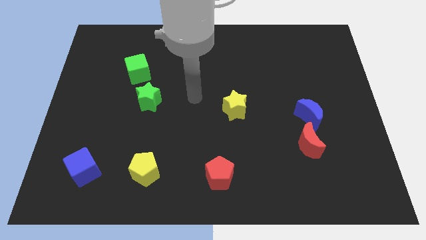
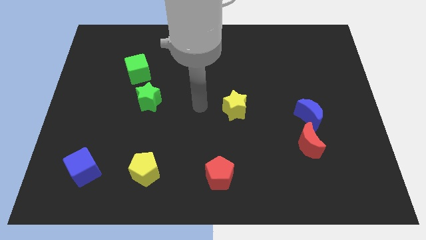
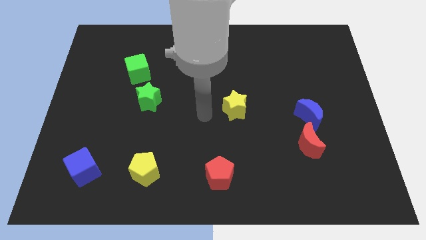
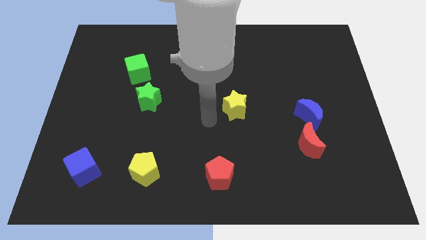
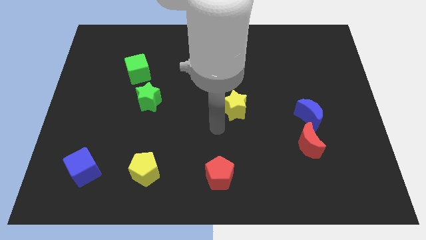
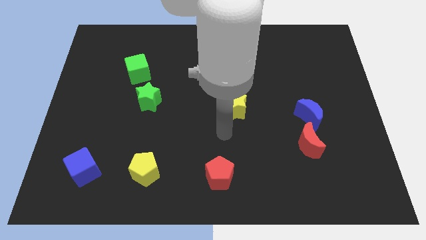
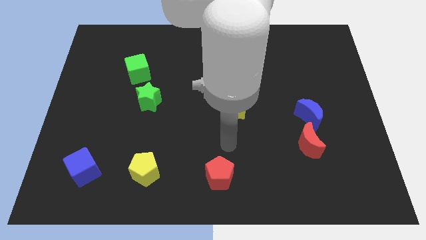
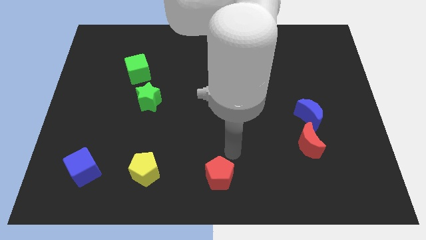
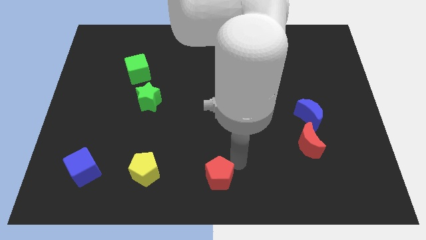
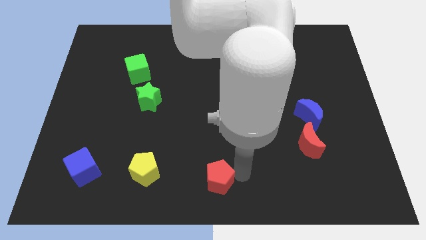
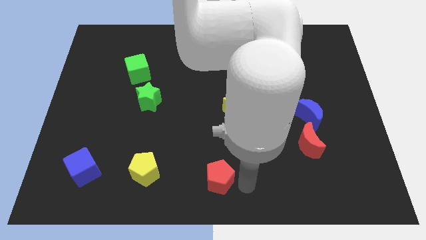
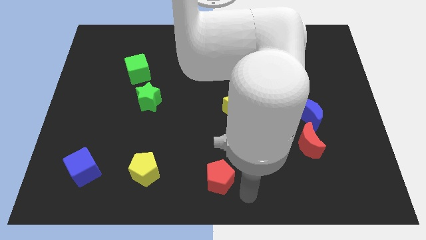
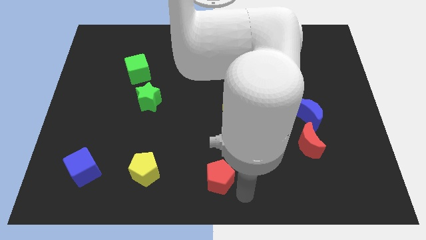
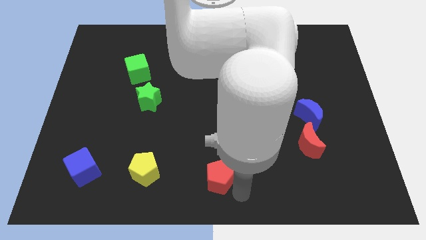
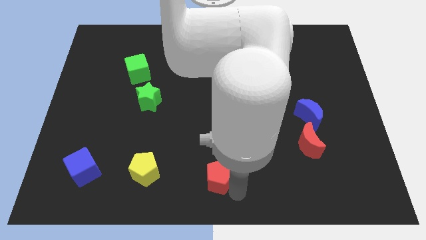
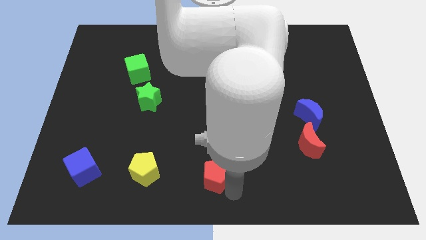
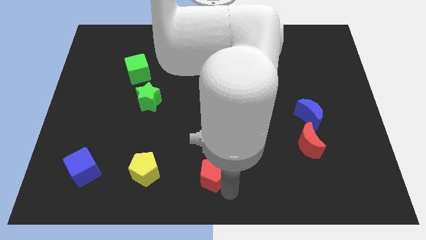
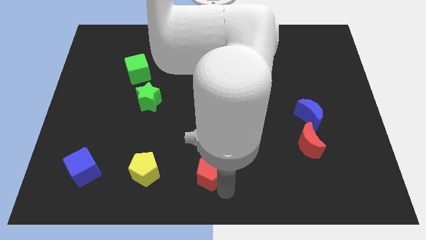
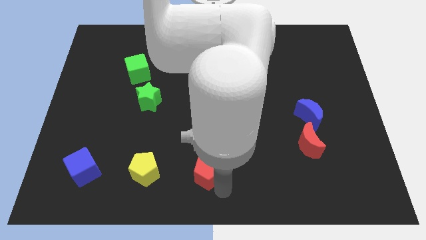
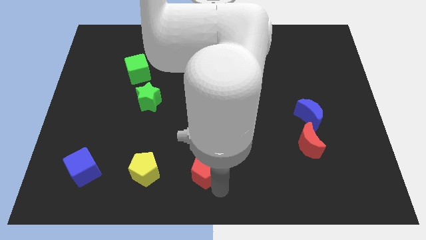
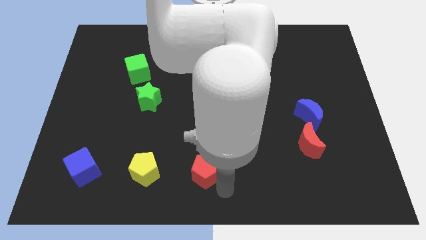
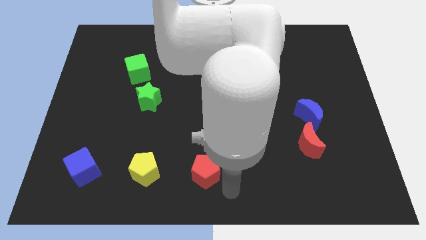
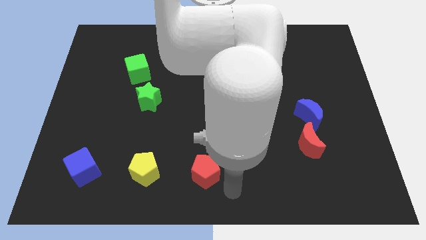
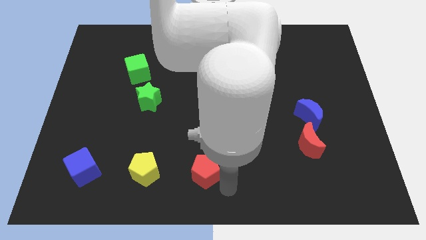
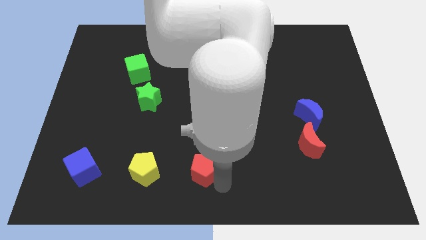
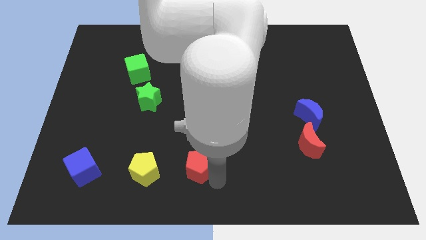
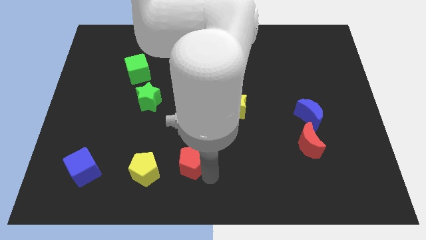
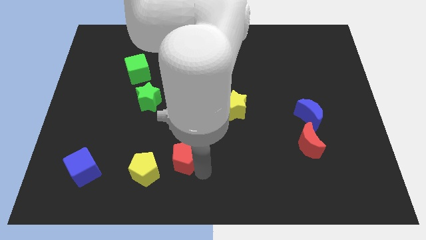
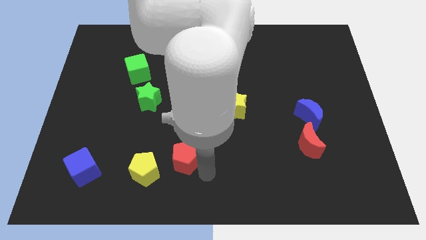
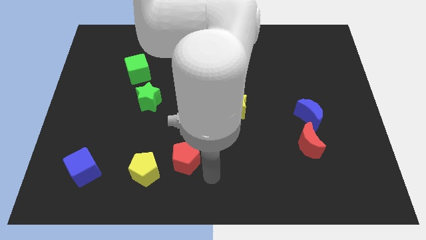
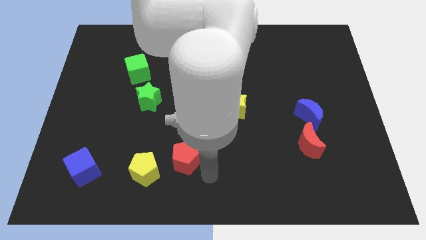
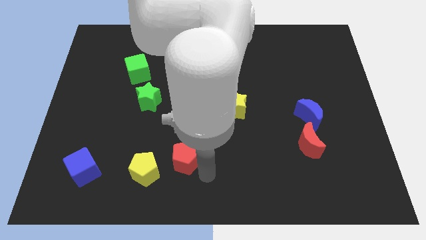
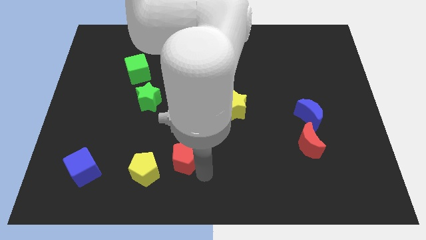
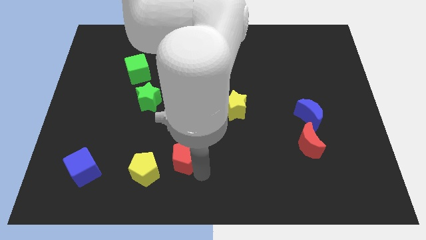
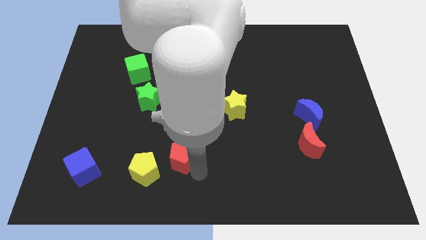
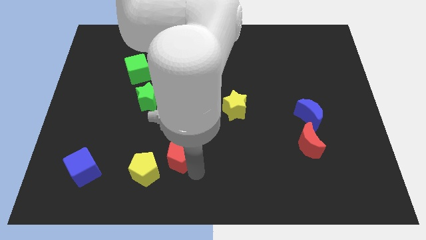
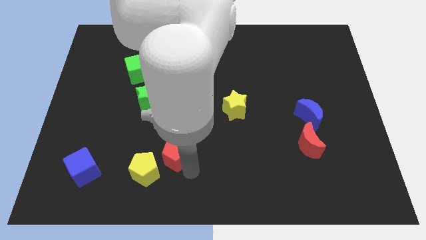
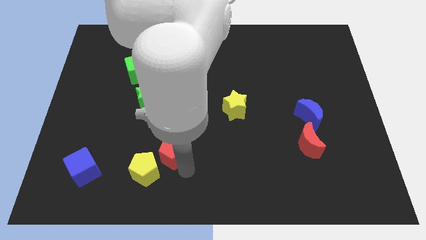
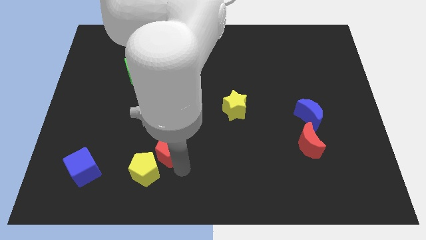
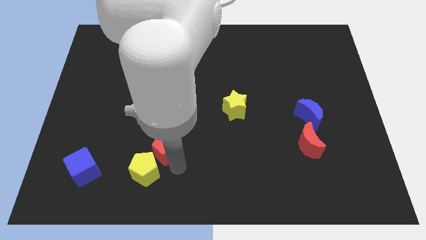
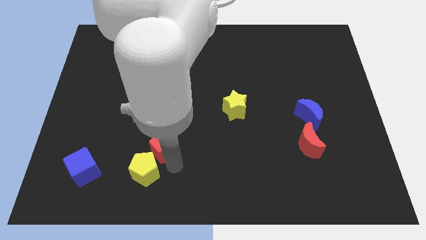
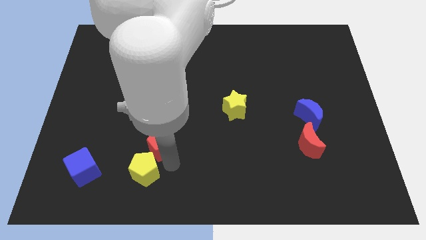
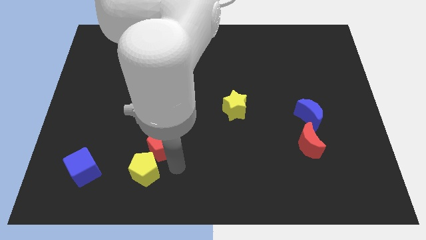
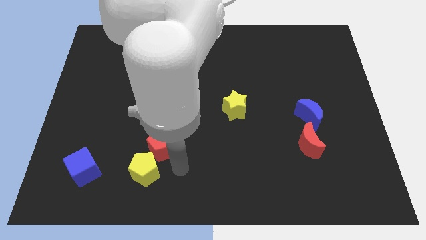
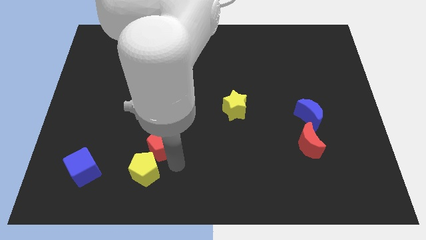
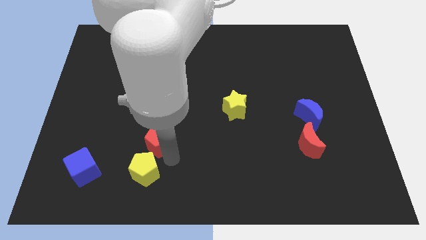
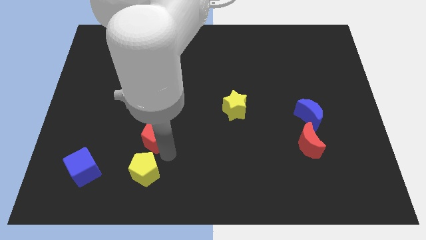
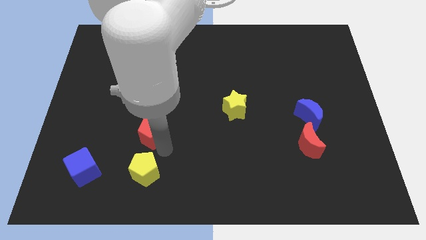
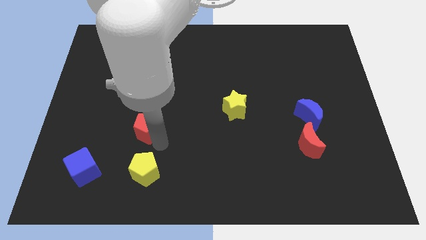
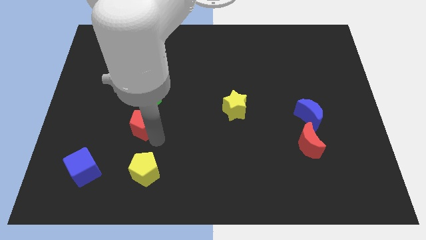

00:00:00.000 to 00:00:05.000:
slide the red pentagon up and to the left

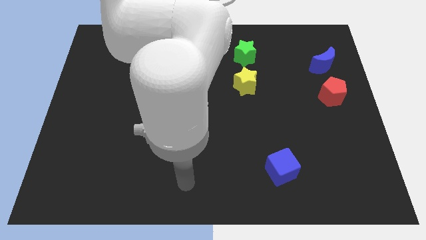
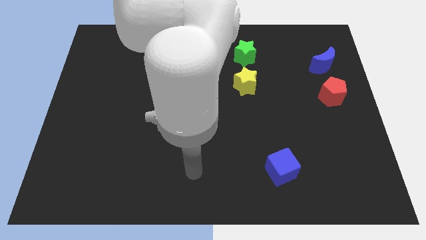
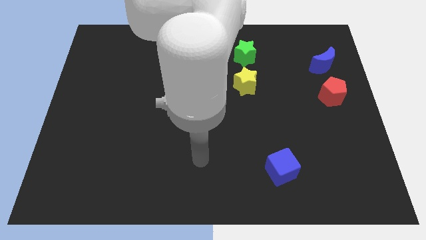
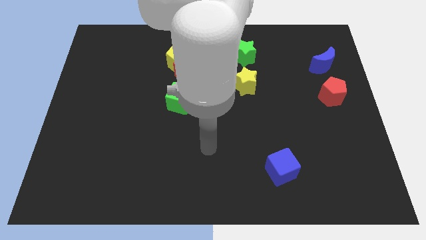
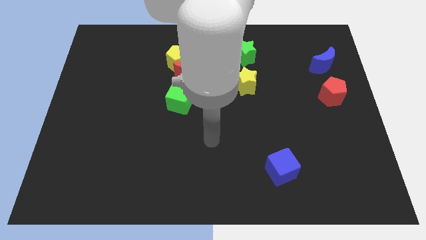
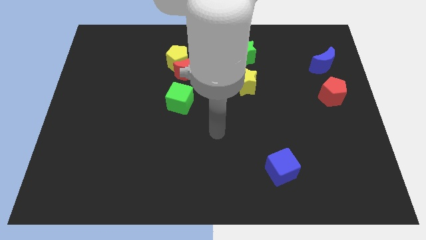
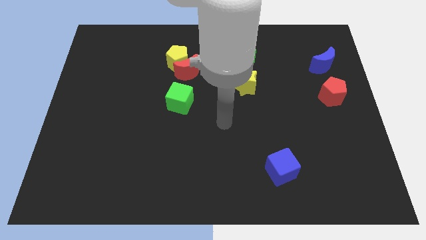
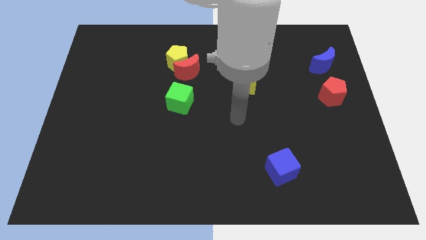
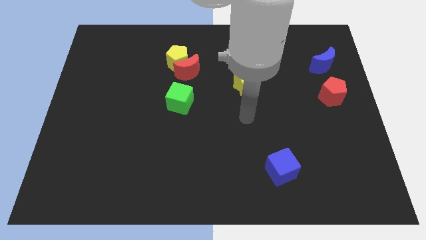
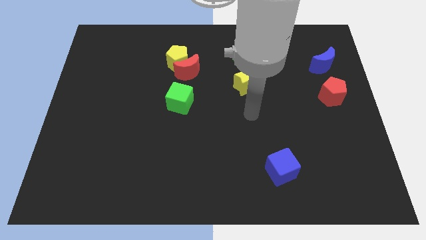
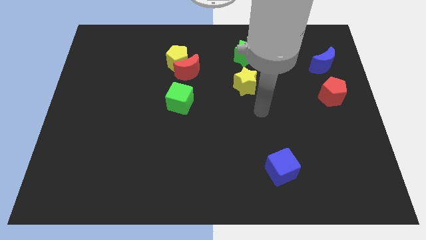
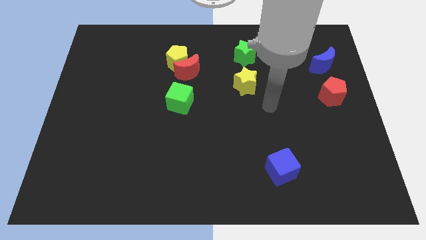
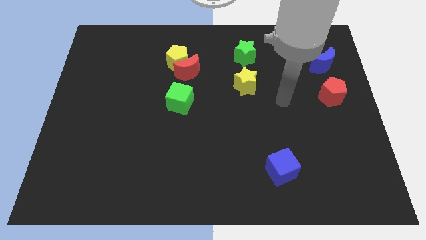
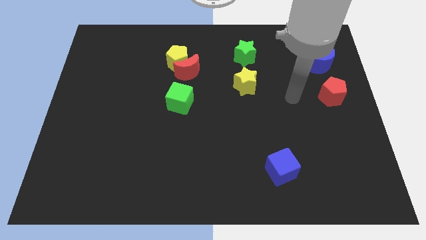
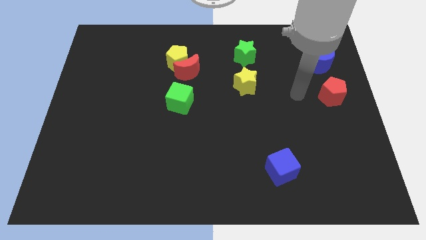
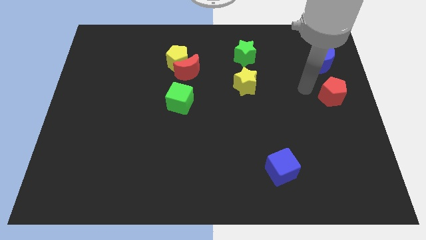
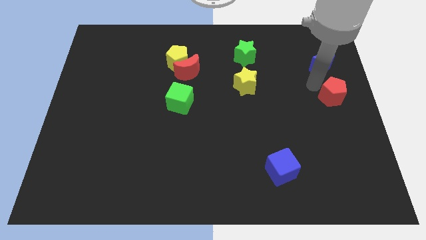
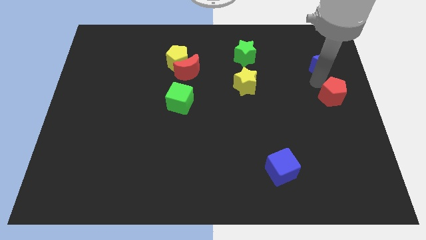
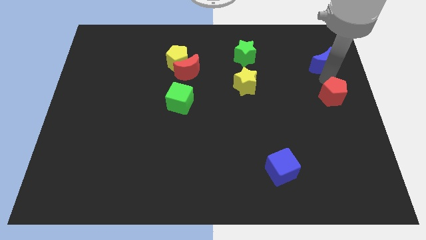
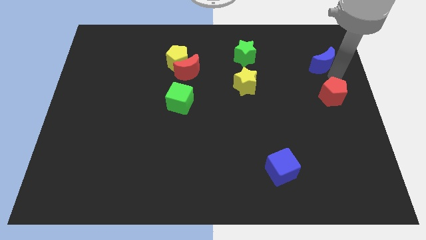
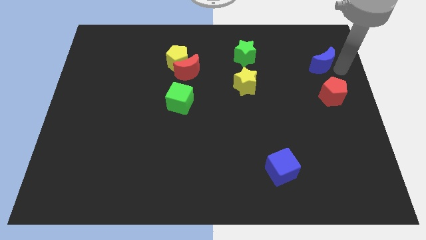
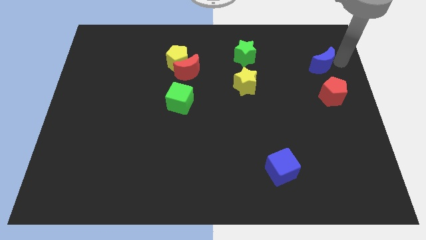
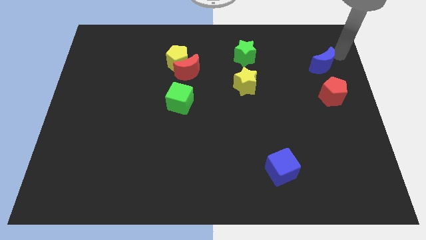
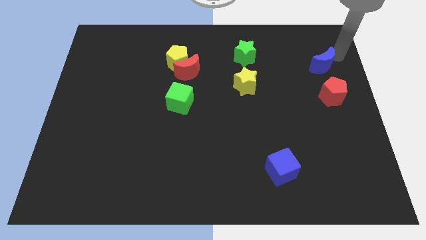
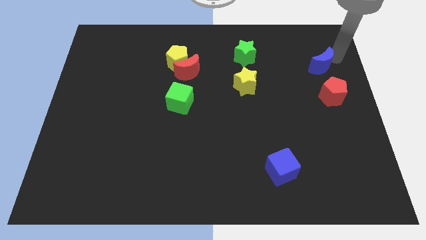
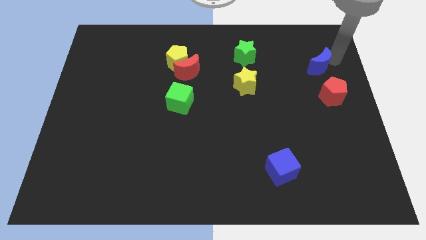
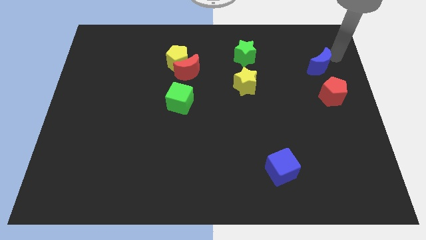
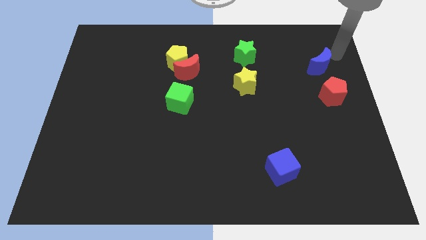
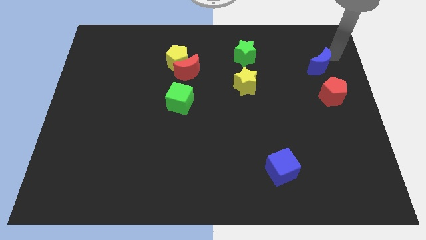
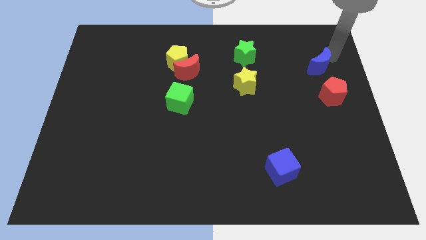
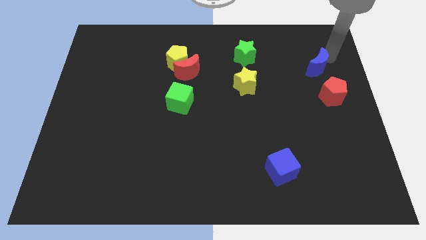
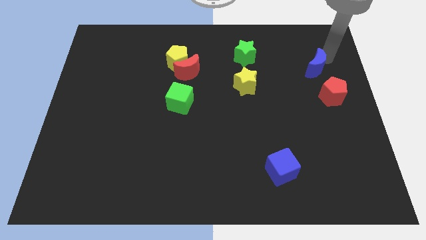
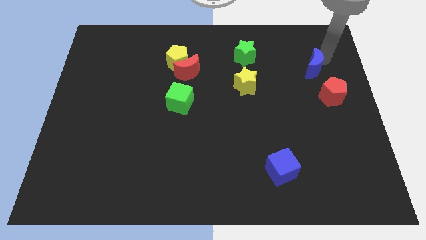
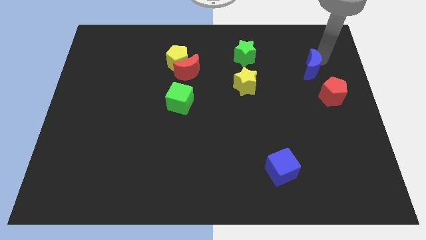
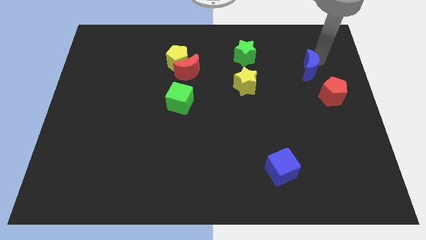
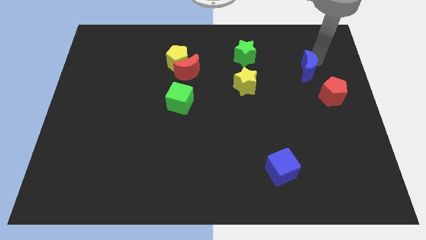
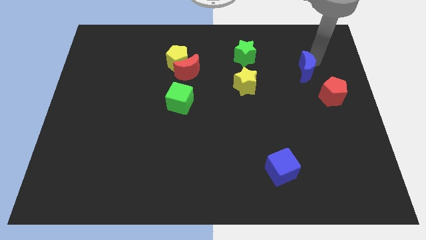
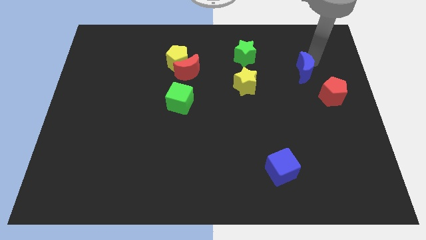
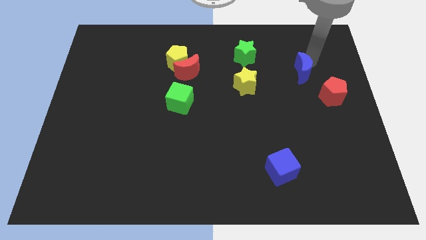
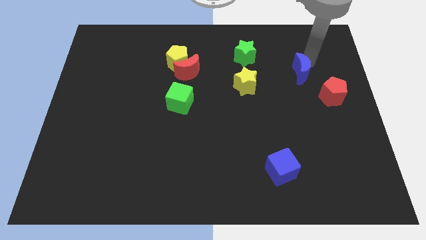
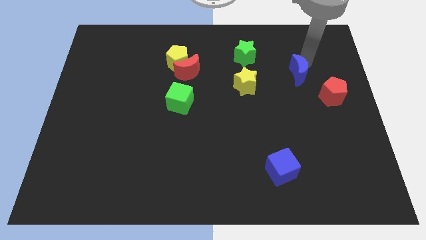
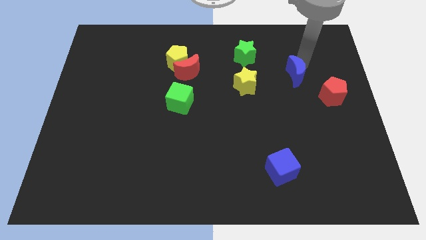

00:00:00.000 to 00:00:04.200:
move the blue moon down and then to the left a bit
